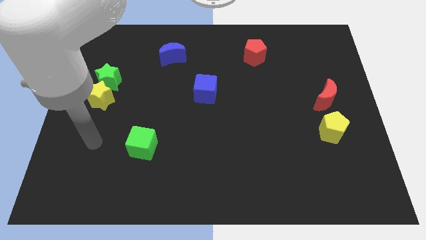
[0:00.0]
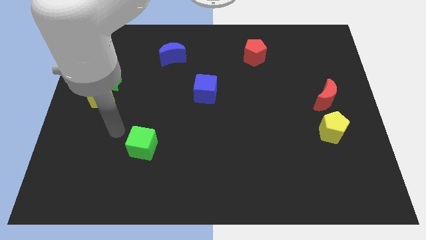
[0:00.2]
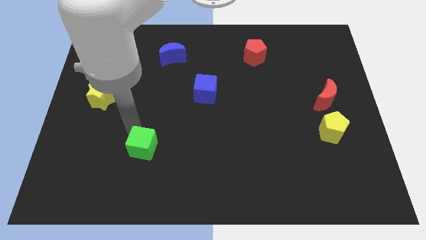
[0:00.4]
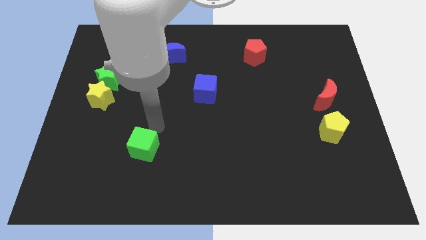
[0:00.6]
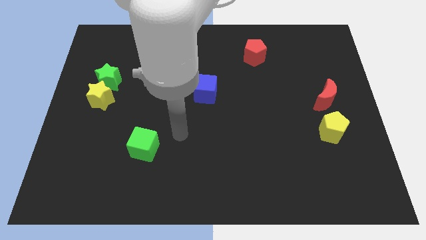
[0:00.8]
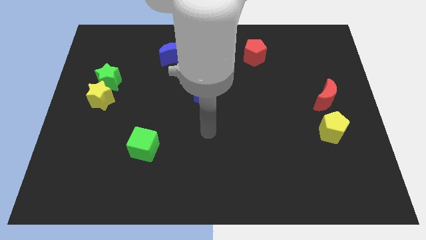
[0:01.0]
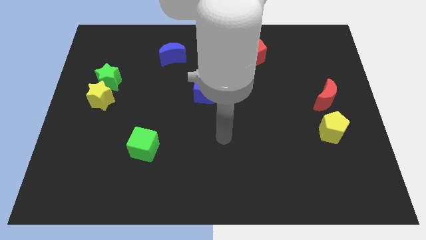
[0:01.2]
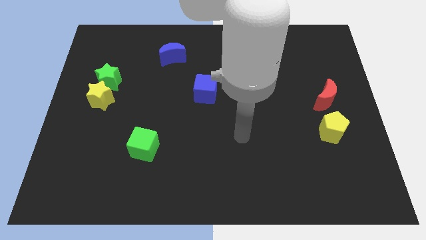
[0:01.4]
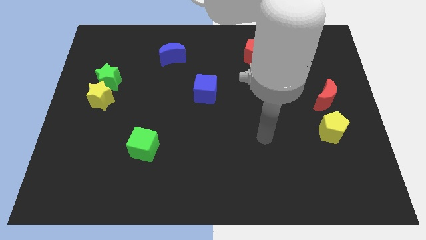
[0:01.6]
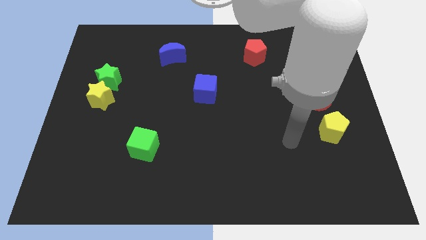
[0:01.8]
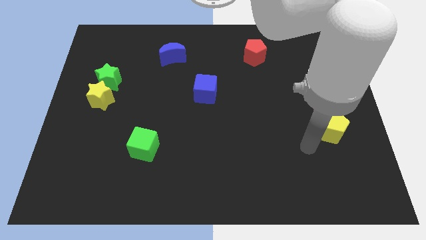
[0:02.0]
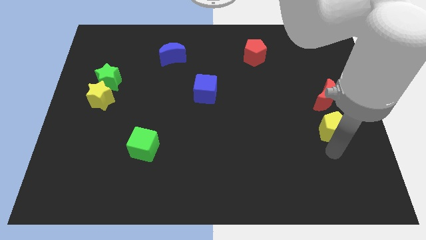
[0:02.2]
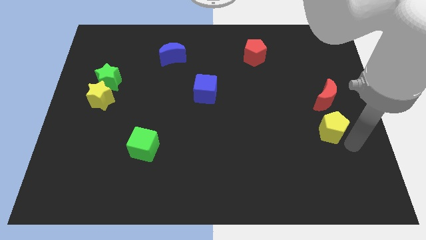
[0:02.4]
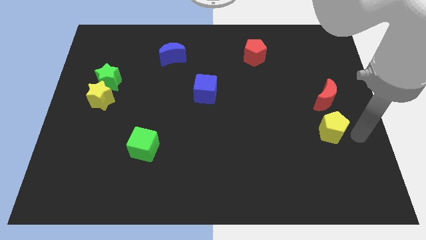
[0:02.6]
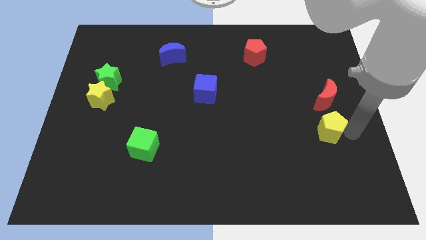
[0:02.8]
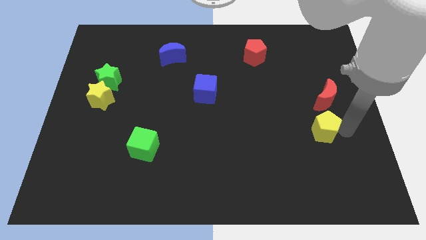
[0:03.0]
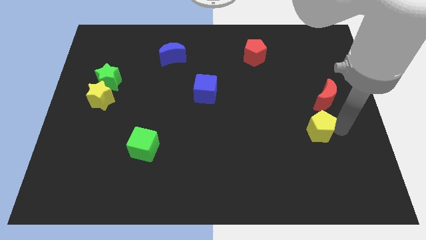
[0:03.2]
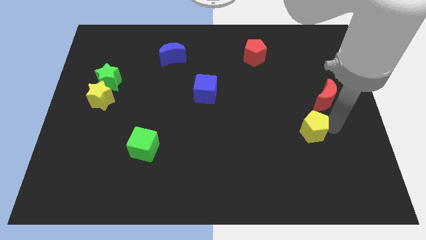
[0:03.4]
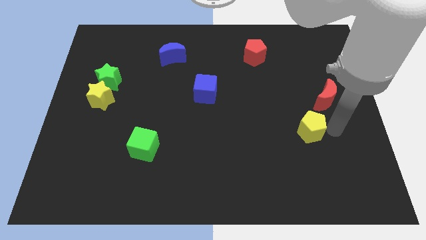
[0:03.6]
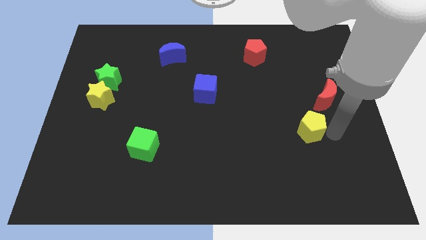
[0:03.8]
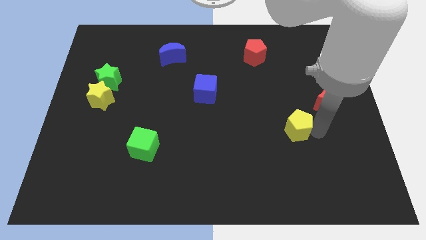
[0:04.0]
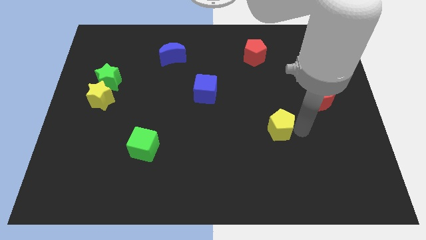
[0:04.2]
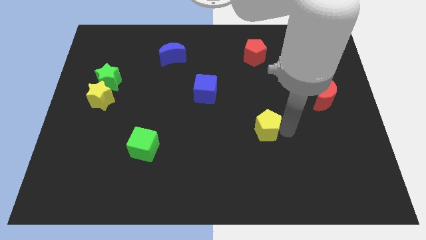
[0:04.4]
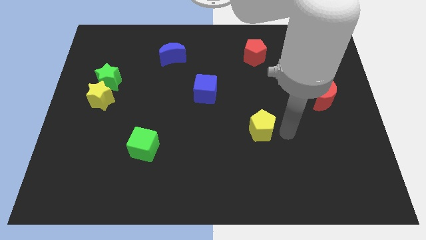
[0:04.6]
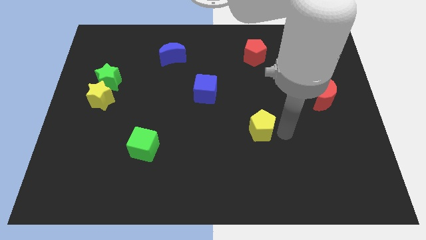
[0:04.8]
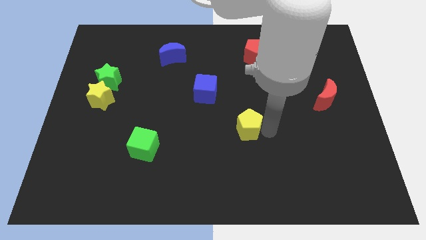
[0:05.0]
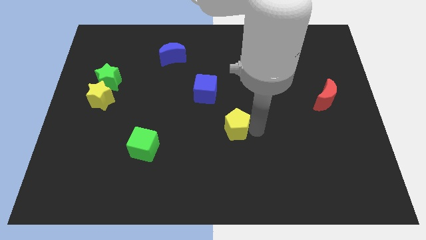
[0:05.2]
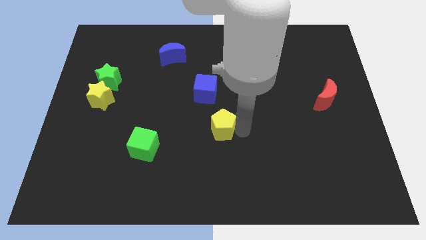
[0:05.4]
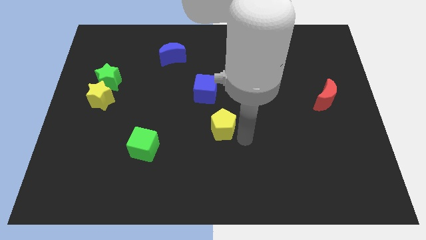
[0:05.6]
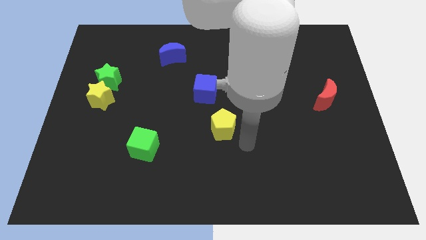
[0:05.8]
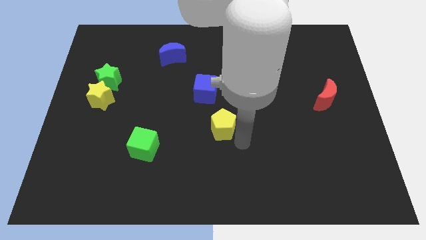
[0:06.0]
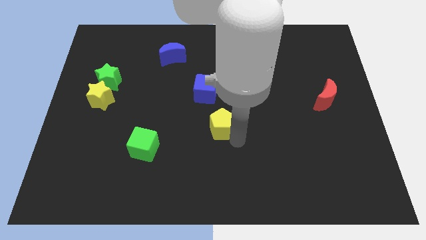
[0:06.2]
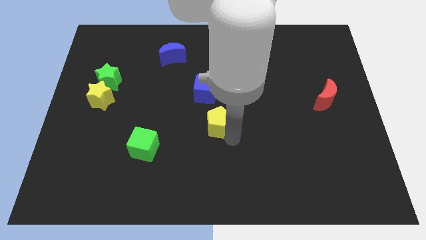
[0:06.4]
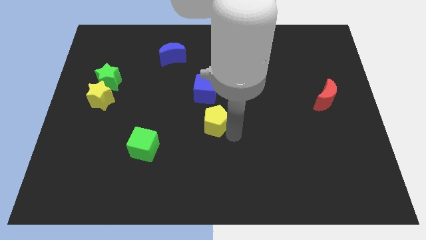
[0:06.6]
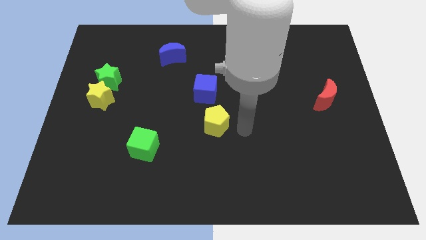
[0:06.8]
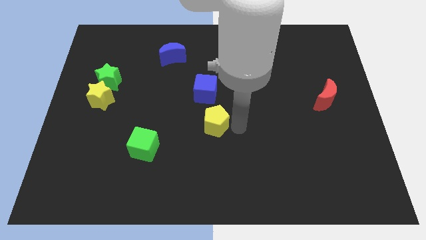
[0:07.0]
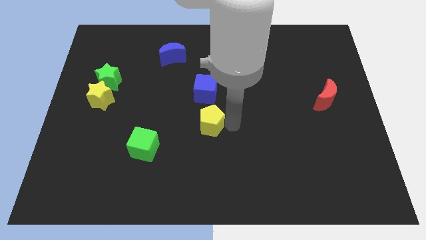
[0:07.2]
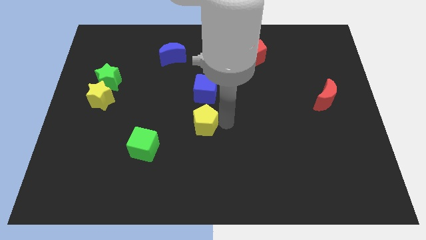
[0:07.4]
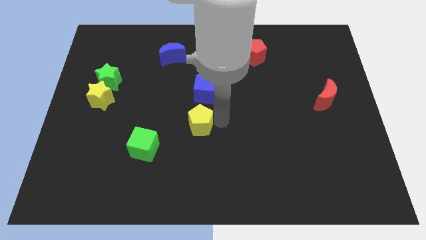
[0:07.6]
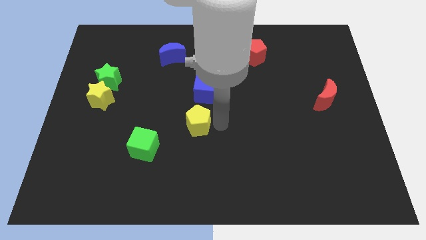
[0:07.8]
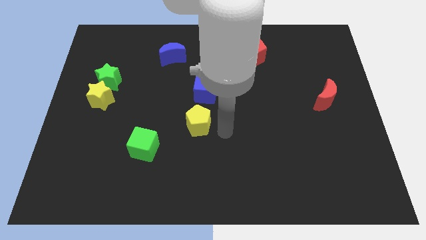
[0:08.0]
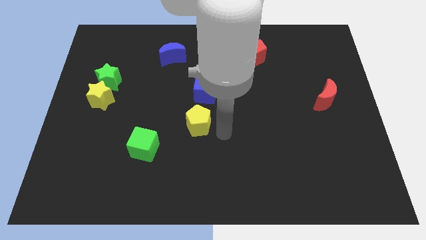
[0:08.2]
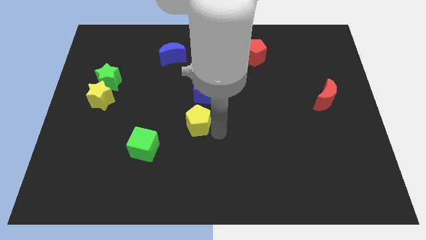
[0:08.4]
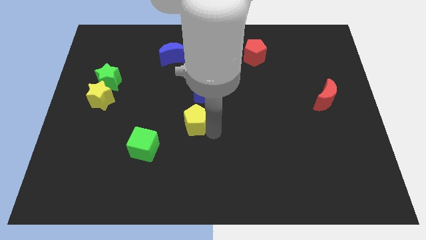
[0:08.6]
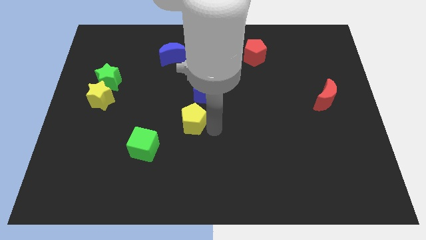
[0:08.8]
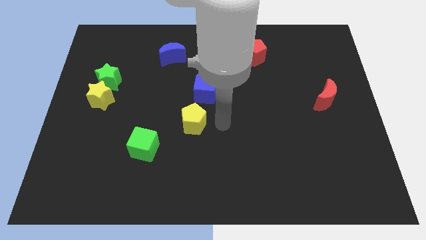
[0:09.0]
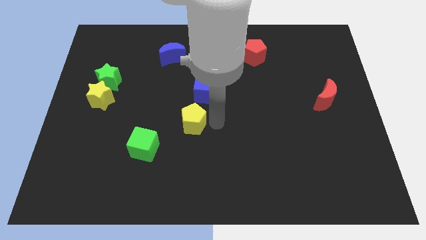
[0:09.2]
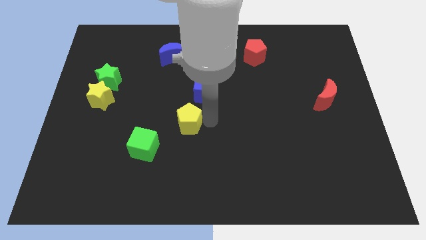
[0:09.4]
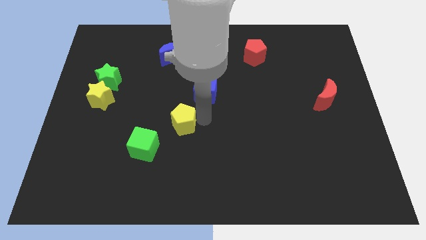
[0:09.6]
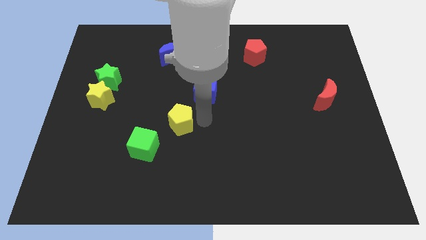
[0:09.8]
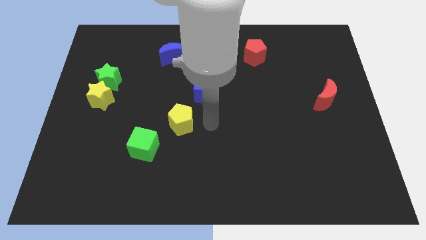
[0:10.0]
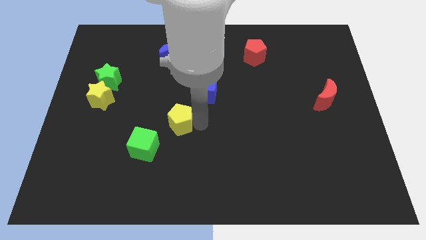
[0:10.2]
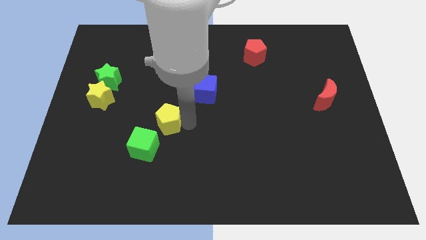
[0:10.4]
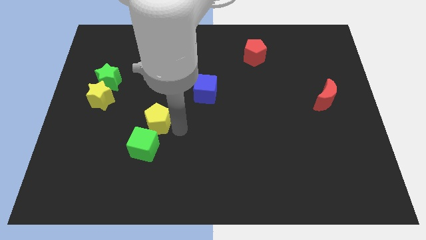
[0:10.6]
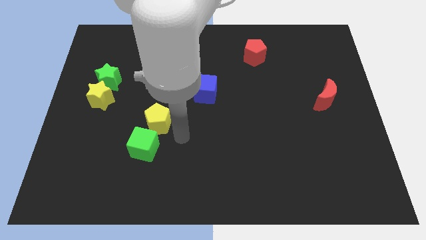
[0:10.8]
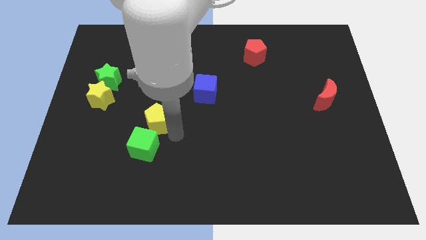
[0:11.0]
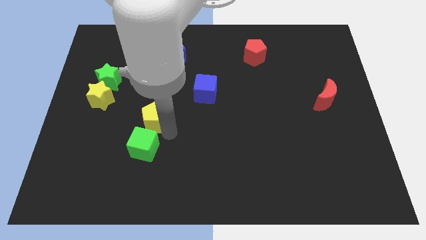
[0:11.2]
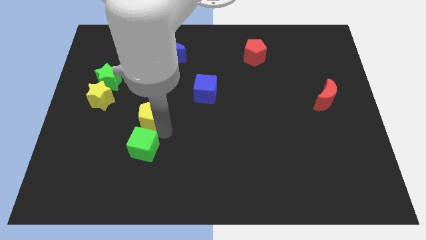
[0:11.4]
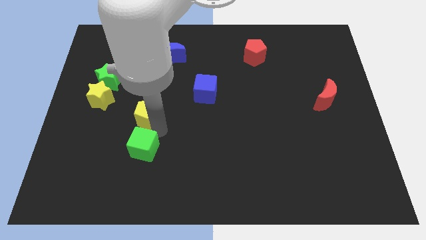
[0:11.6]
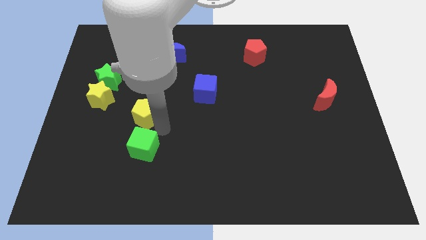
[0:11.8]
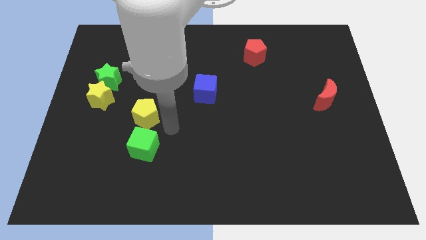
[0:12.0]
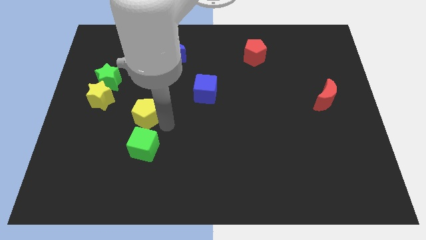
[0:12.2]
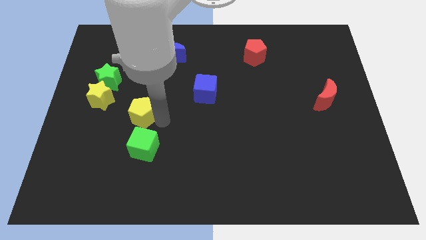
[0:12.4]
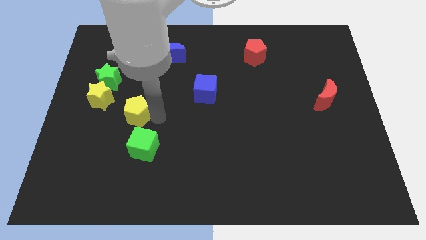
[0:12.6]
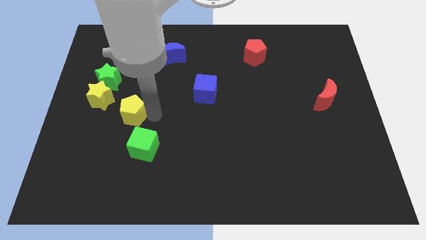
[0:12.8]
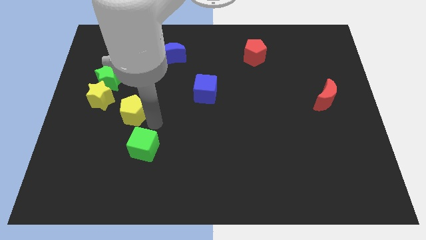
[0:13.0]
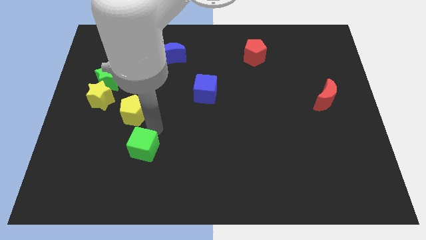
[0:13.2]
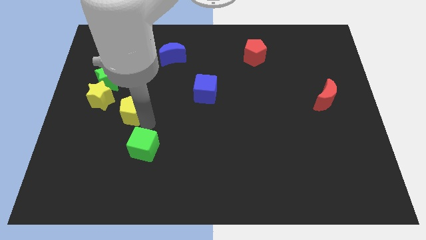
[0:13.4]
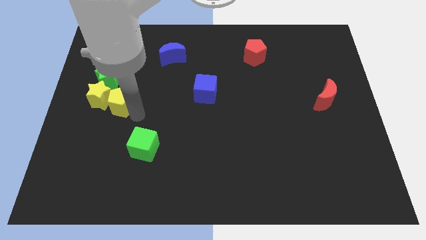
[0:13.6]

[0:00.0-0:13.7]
slide the yellow pentagon to the yellow star

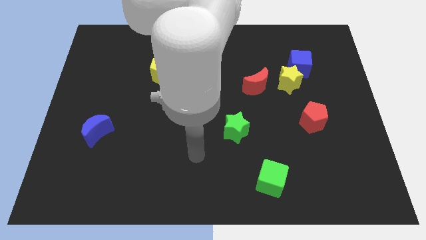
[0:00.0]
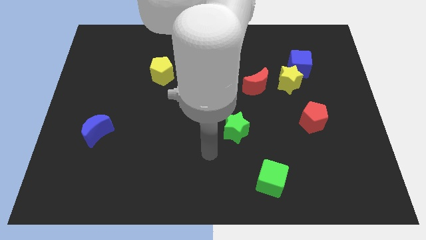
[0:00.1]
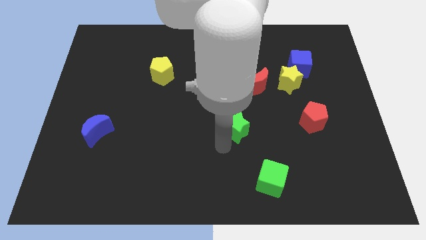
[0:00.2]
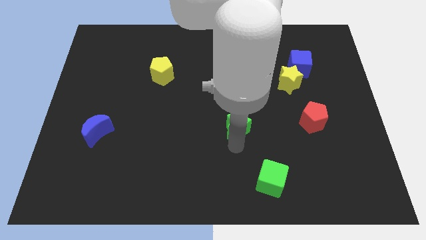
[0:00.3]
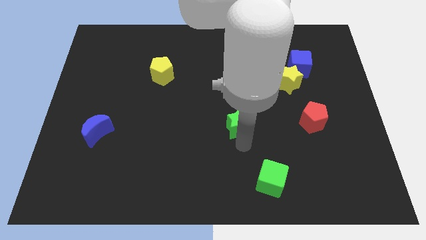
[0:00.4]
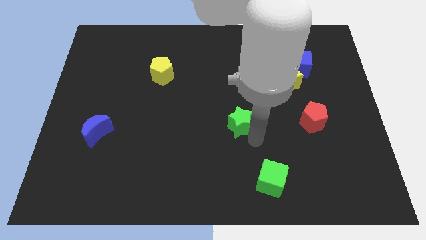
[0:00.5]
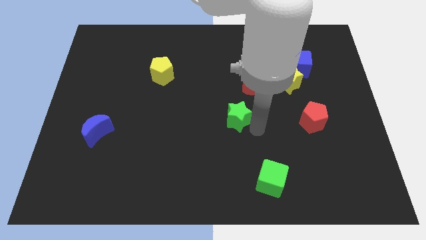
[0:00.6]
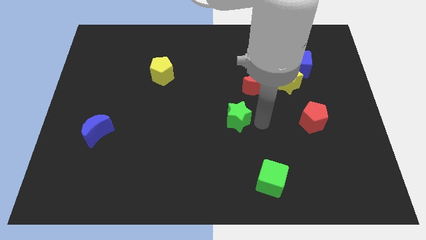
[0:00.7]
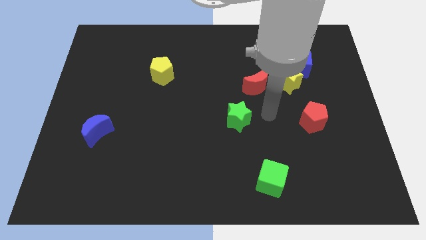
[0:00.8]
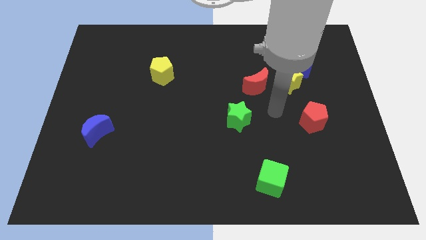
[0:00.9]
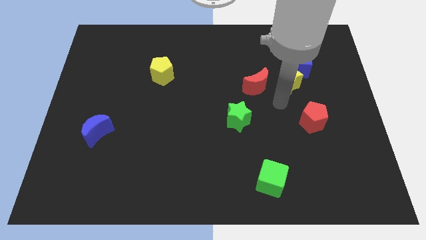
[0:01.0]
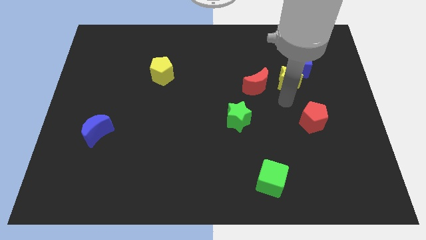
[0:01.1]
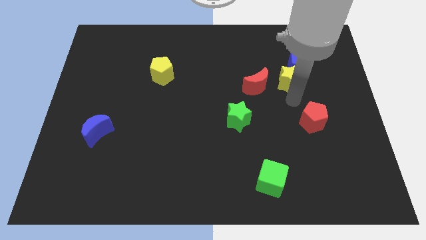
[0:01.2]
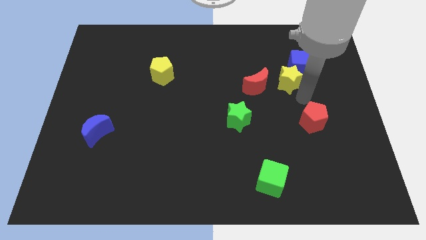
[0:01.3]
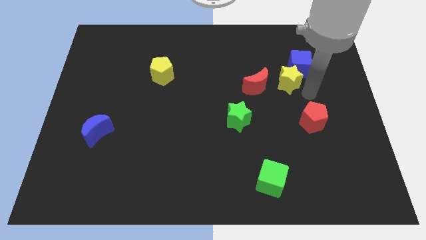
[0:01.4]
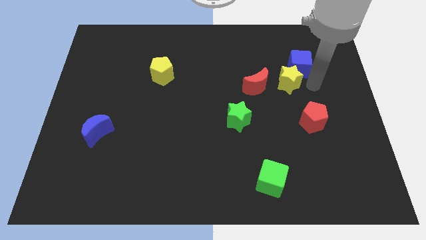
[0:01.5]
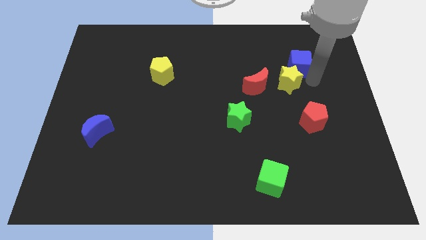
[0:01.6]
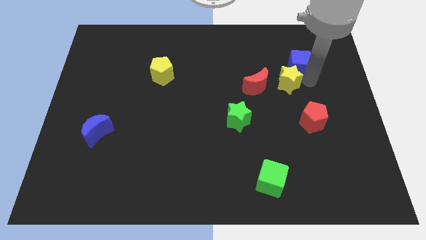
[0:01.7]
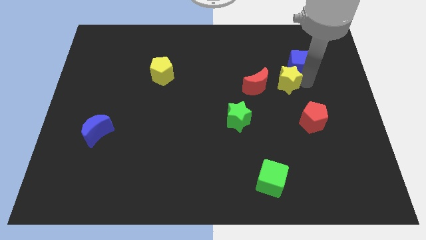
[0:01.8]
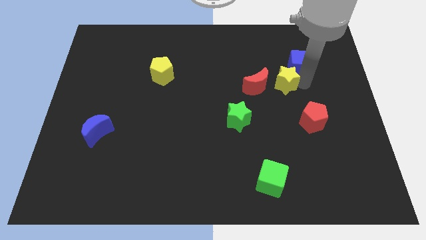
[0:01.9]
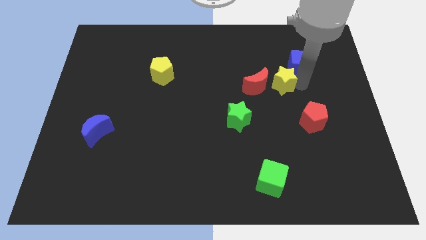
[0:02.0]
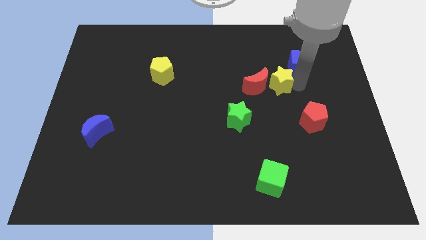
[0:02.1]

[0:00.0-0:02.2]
move the yellow star towards the red moon
